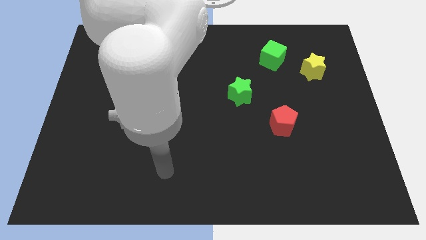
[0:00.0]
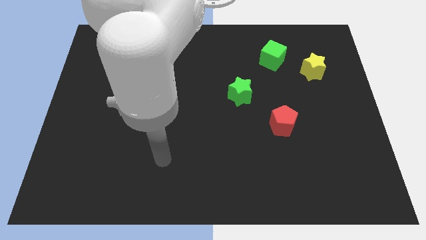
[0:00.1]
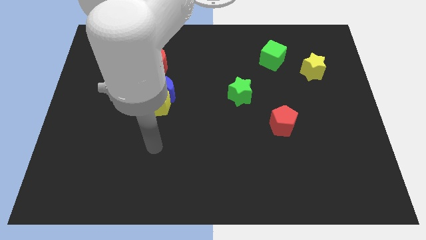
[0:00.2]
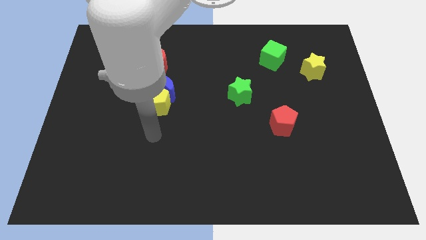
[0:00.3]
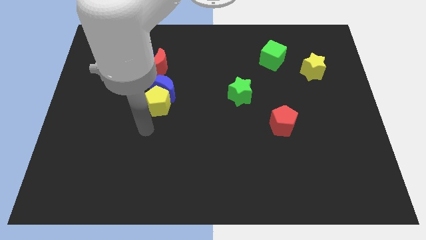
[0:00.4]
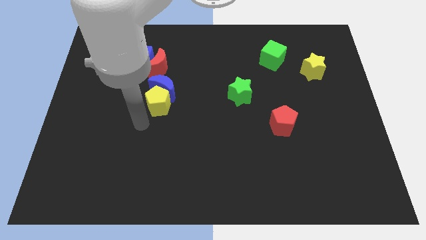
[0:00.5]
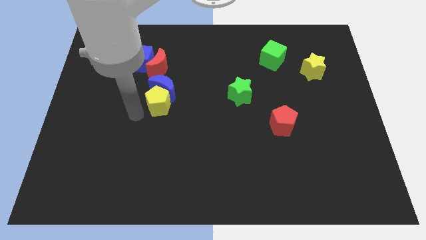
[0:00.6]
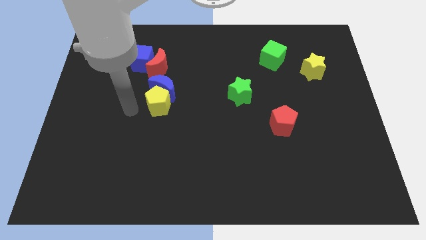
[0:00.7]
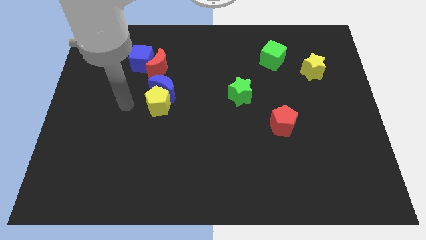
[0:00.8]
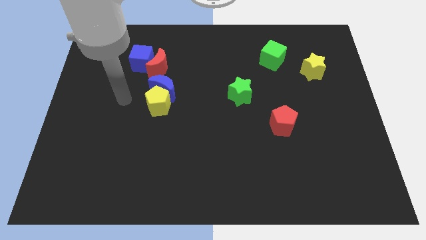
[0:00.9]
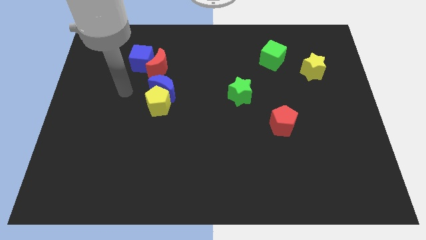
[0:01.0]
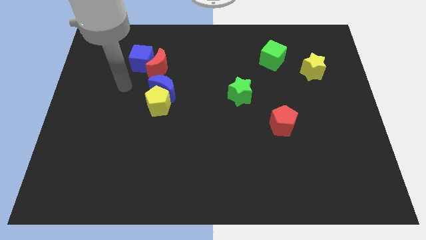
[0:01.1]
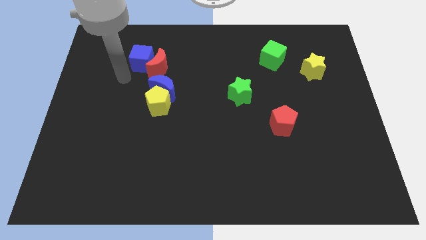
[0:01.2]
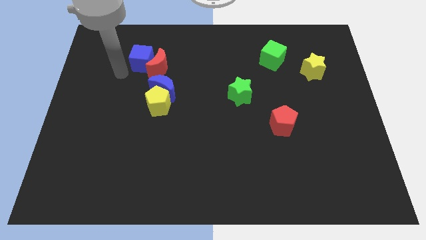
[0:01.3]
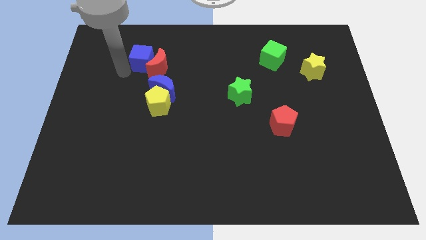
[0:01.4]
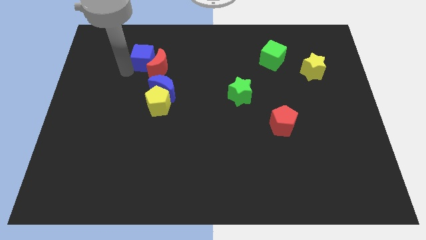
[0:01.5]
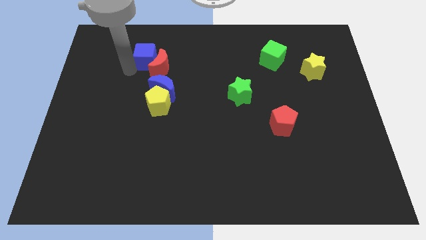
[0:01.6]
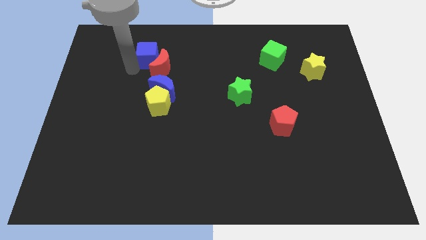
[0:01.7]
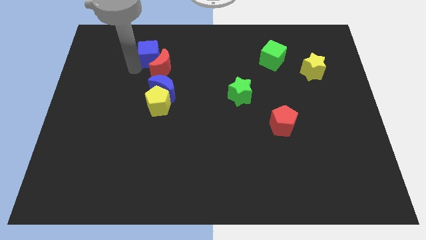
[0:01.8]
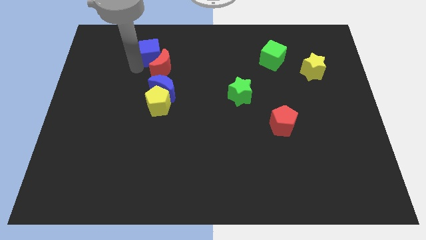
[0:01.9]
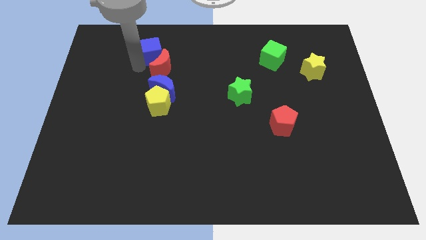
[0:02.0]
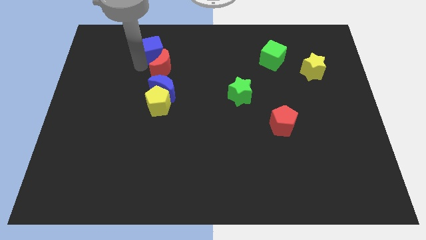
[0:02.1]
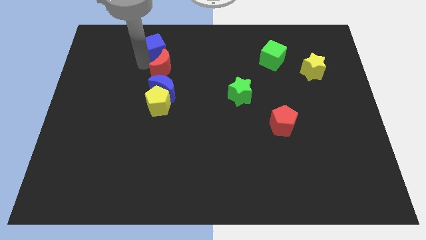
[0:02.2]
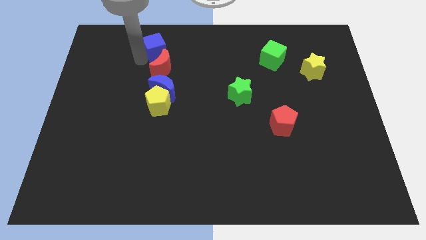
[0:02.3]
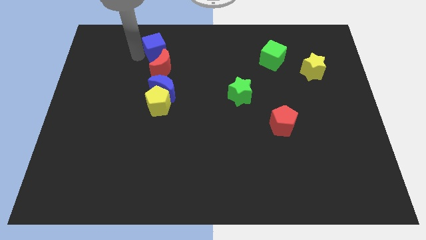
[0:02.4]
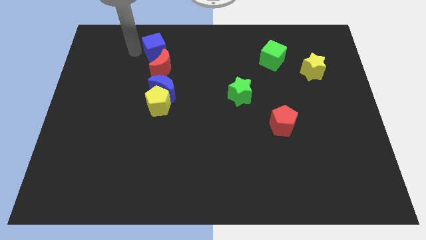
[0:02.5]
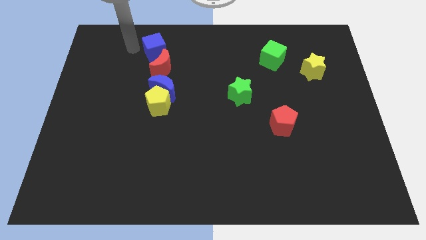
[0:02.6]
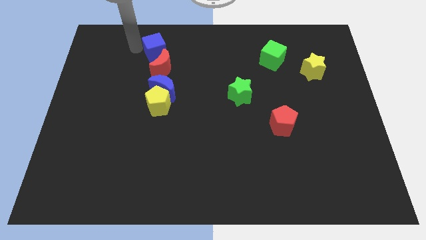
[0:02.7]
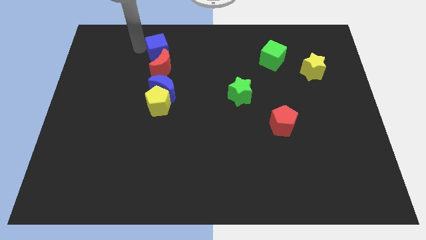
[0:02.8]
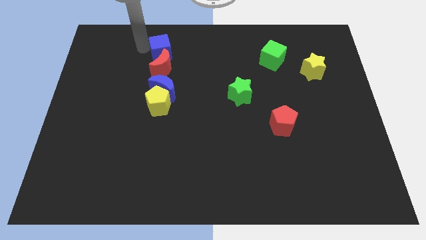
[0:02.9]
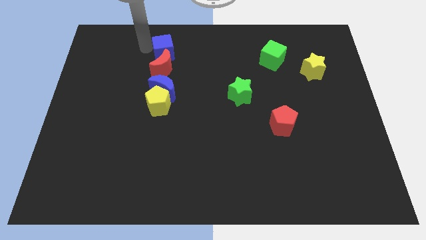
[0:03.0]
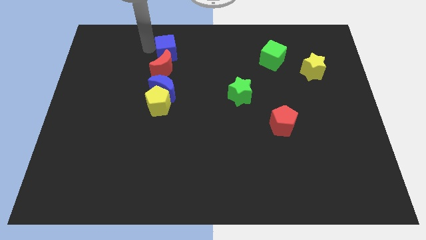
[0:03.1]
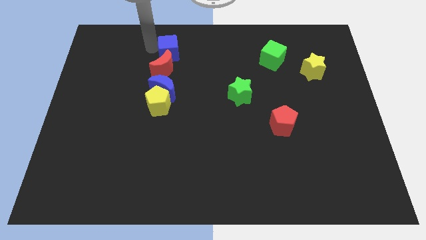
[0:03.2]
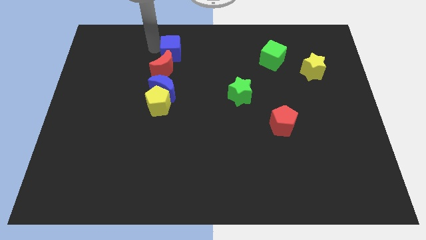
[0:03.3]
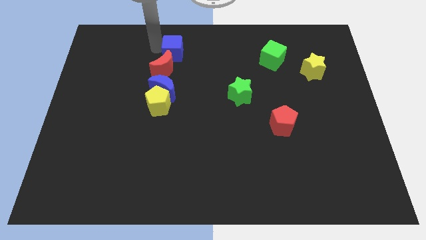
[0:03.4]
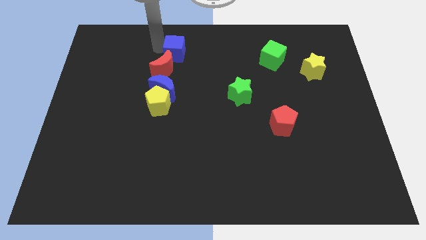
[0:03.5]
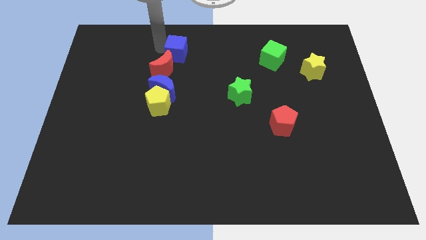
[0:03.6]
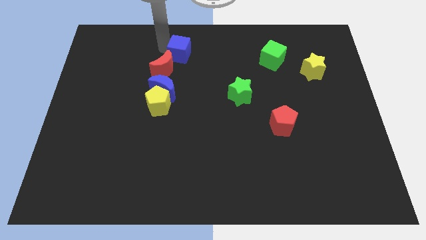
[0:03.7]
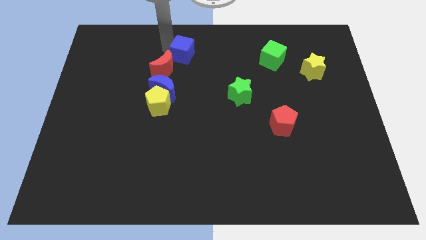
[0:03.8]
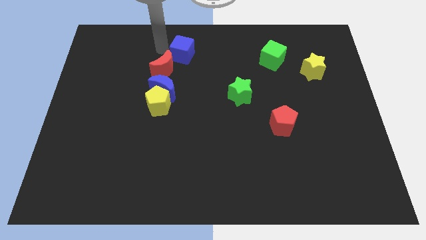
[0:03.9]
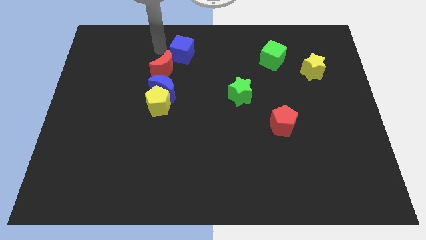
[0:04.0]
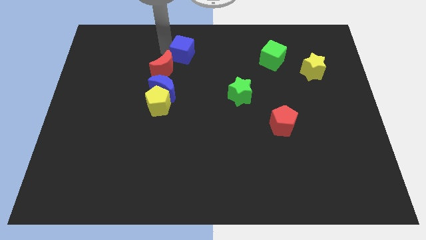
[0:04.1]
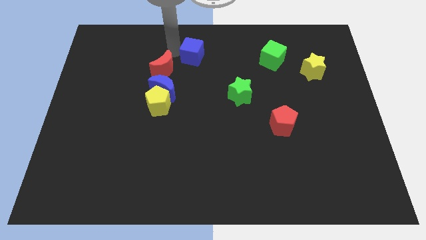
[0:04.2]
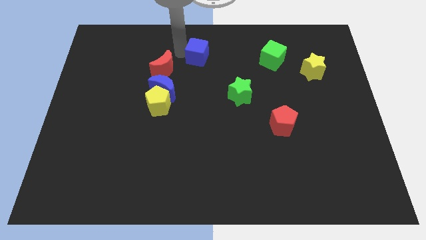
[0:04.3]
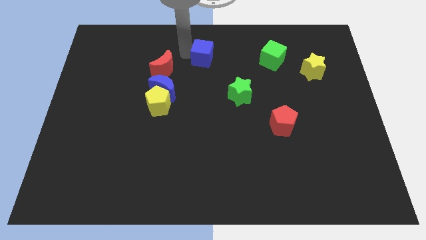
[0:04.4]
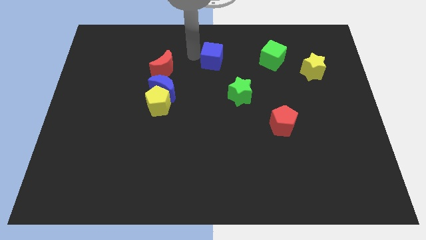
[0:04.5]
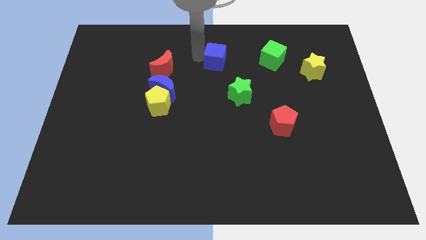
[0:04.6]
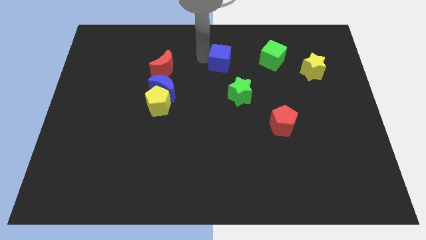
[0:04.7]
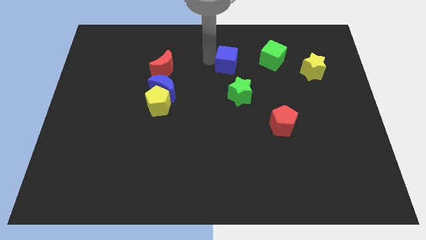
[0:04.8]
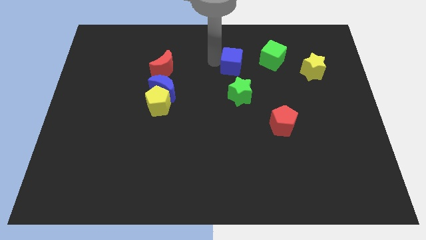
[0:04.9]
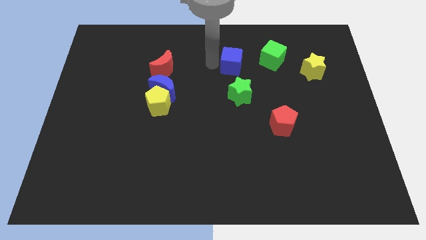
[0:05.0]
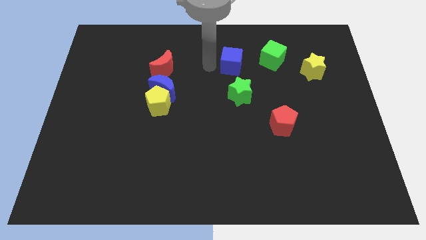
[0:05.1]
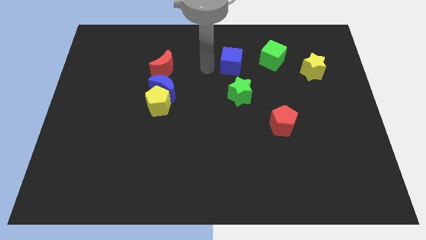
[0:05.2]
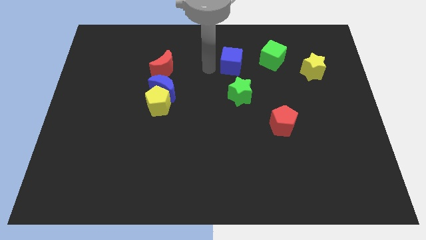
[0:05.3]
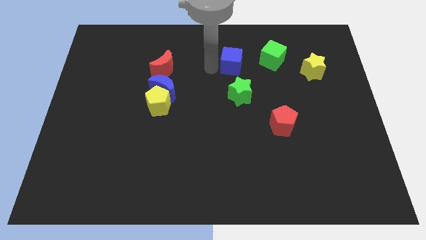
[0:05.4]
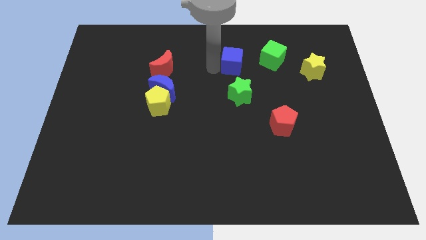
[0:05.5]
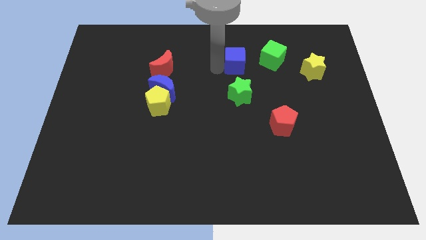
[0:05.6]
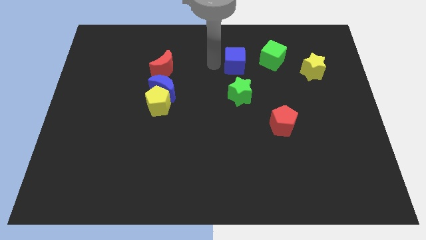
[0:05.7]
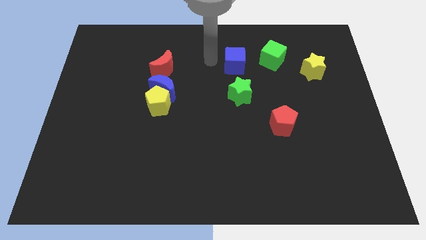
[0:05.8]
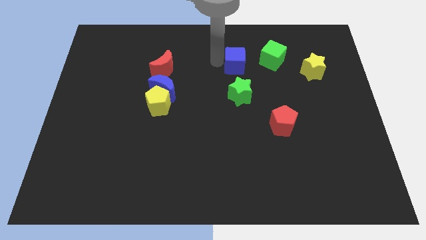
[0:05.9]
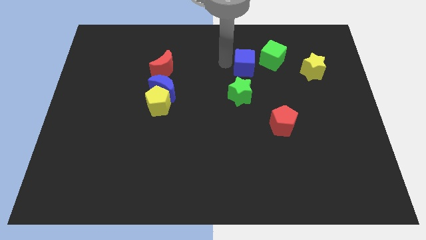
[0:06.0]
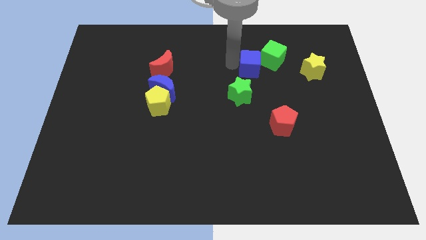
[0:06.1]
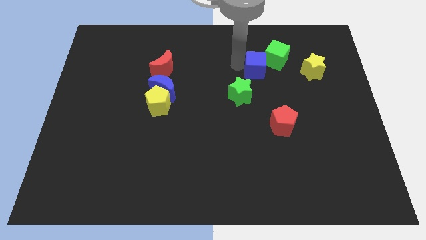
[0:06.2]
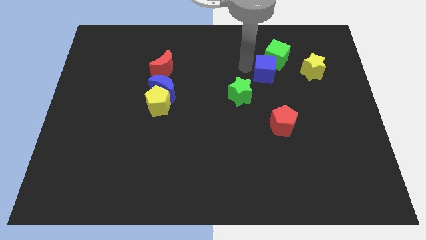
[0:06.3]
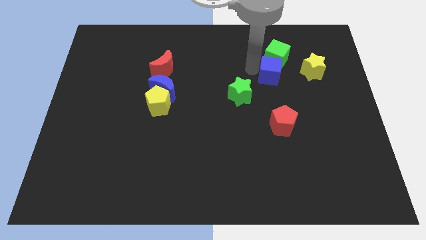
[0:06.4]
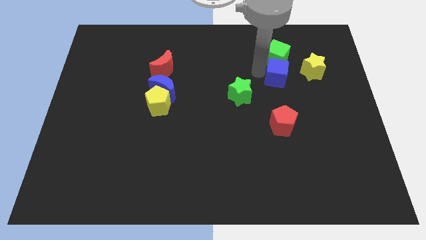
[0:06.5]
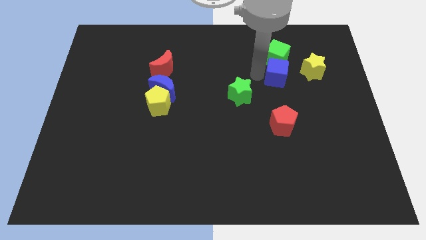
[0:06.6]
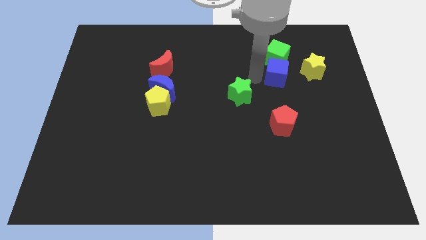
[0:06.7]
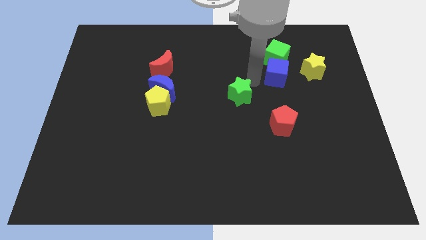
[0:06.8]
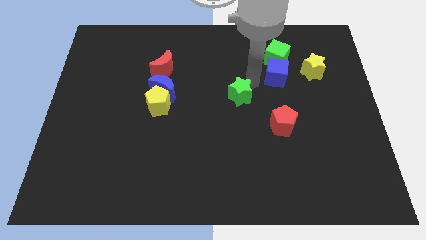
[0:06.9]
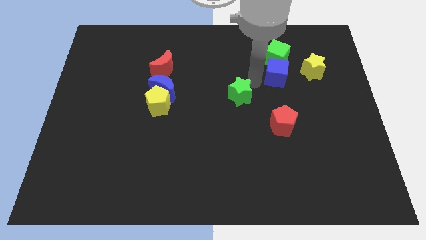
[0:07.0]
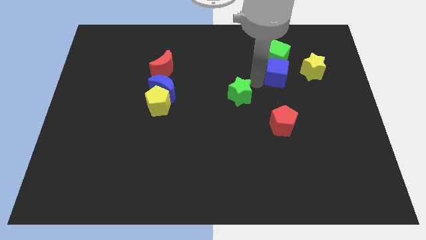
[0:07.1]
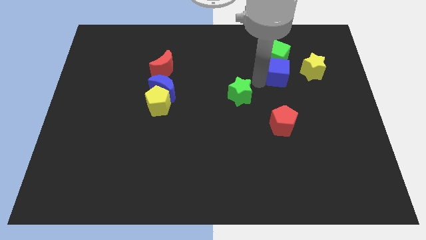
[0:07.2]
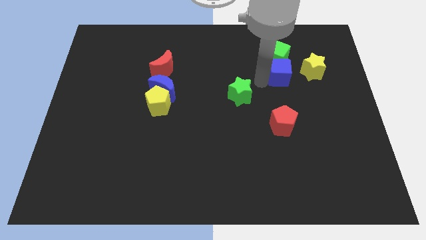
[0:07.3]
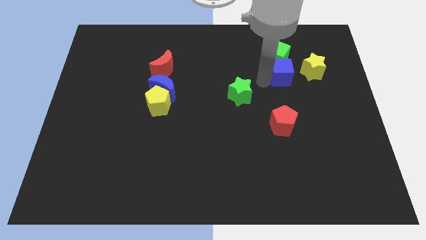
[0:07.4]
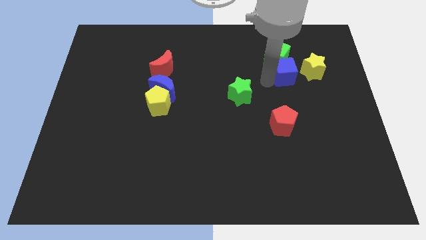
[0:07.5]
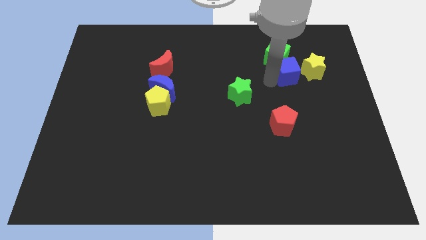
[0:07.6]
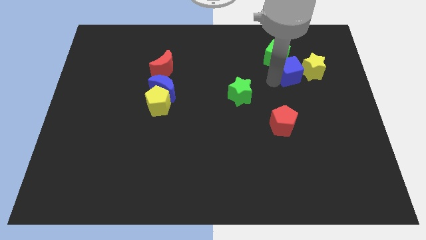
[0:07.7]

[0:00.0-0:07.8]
put the blue cube towards the yellow star

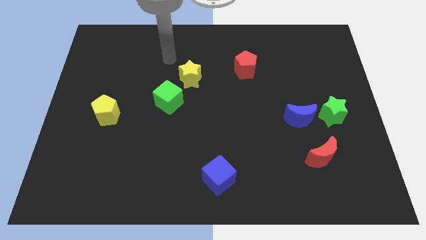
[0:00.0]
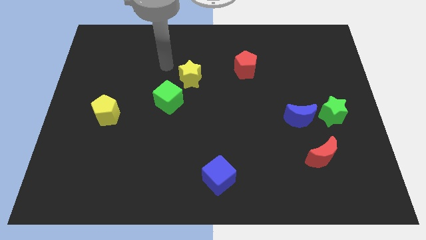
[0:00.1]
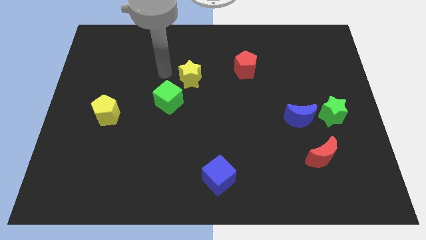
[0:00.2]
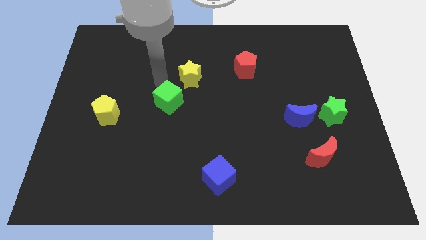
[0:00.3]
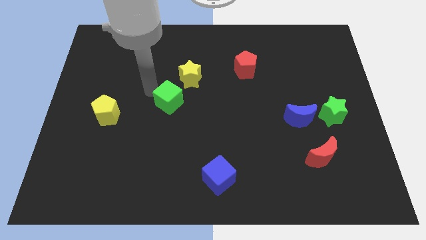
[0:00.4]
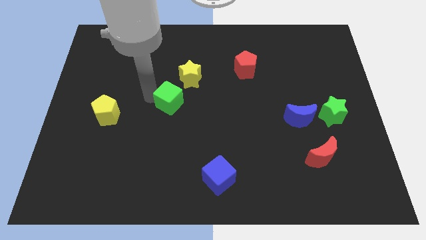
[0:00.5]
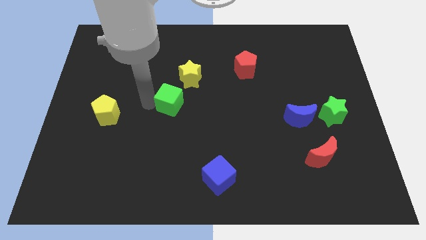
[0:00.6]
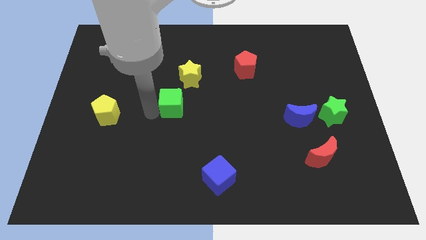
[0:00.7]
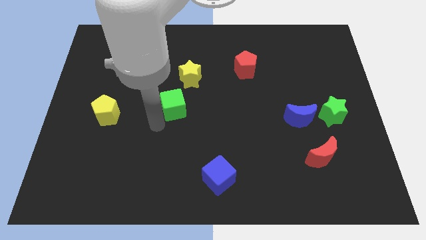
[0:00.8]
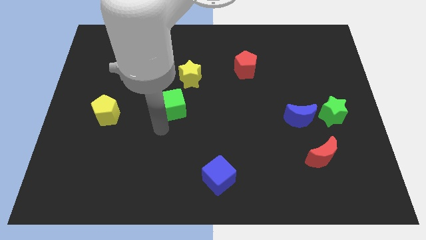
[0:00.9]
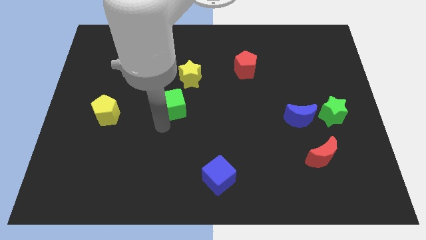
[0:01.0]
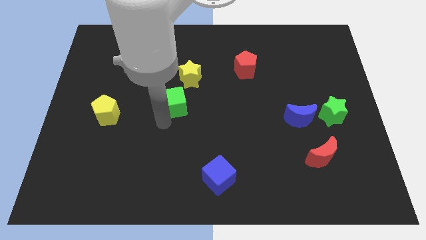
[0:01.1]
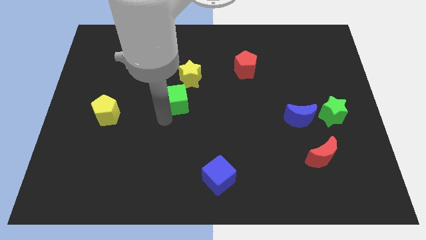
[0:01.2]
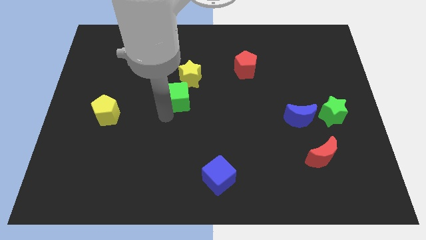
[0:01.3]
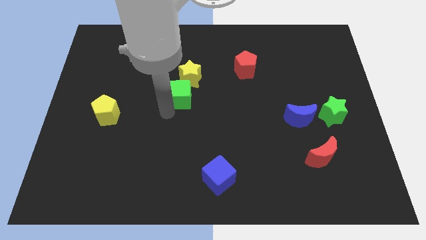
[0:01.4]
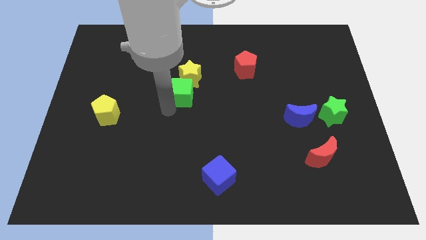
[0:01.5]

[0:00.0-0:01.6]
put the green cube close to the yellow star
